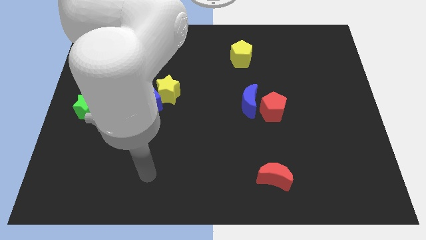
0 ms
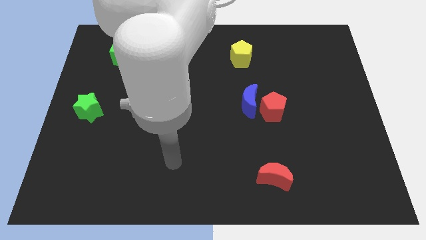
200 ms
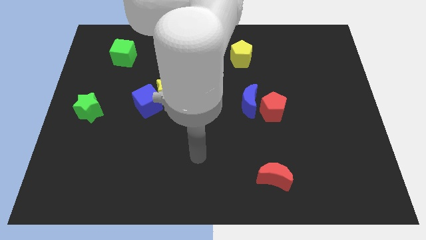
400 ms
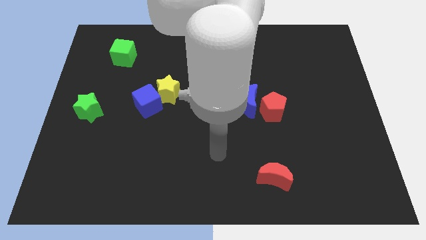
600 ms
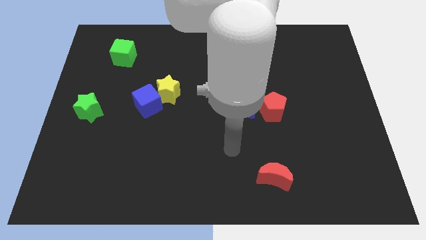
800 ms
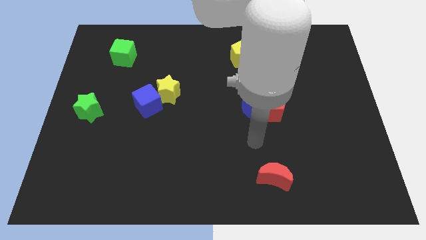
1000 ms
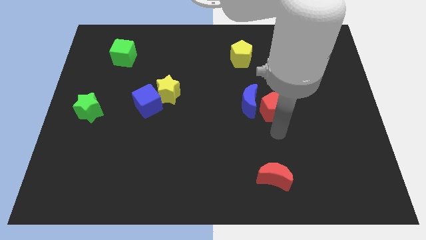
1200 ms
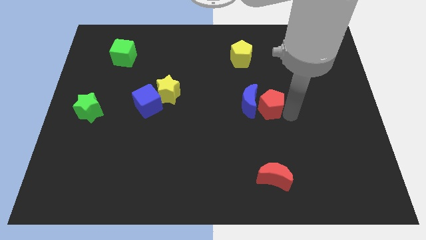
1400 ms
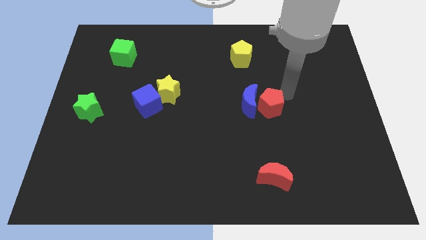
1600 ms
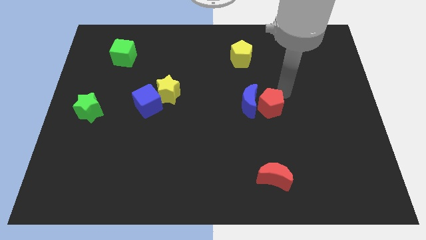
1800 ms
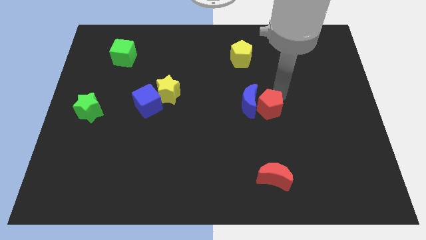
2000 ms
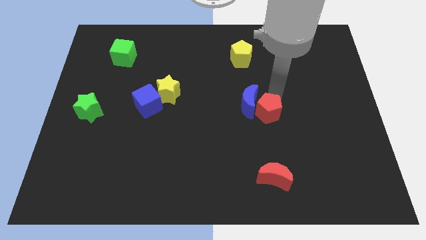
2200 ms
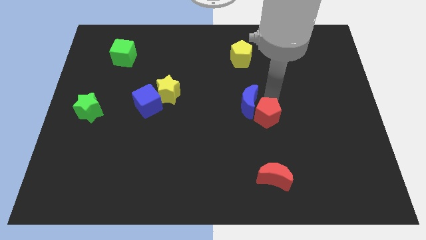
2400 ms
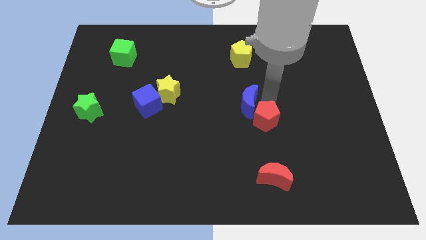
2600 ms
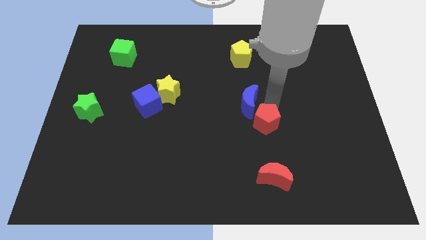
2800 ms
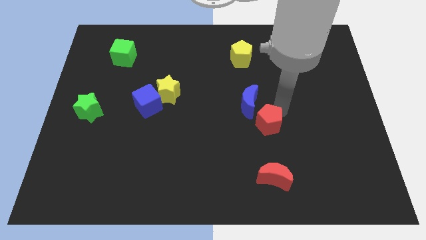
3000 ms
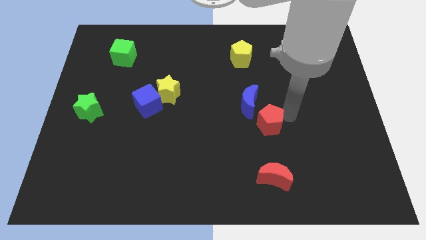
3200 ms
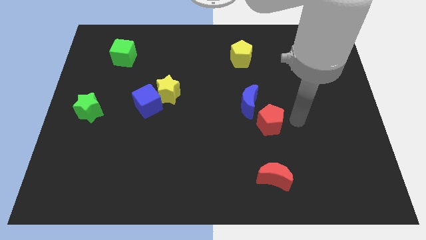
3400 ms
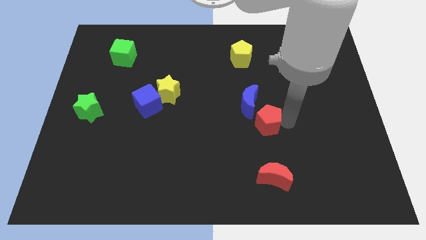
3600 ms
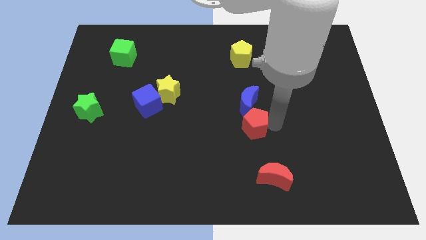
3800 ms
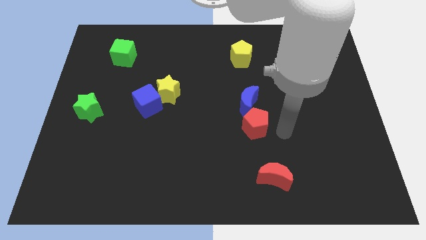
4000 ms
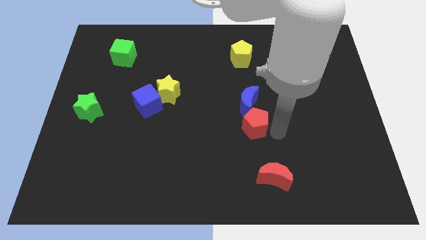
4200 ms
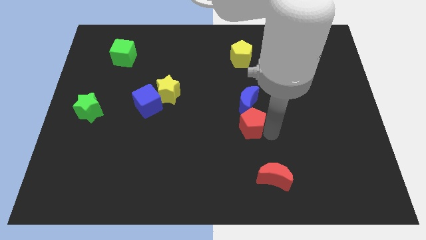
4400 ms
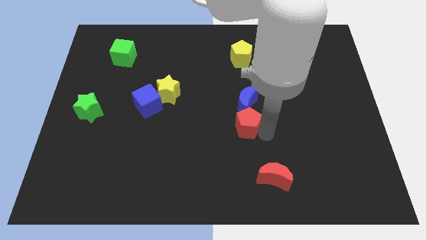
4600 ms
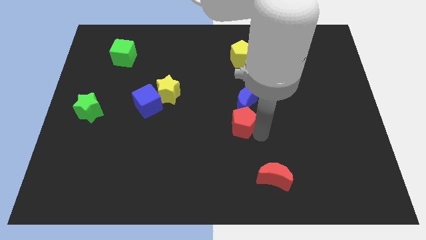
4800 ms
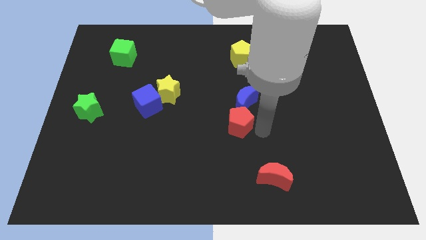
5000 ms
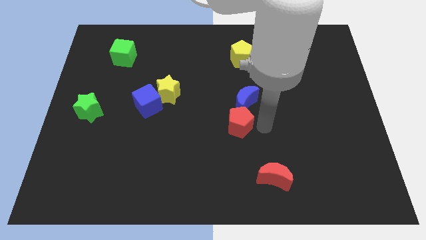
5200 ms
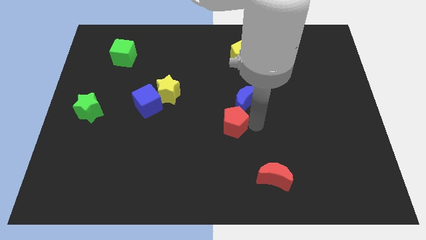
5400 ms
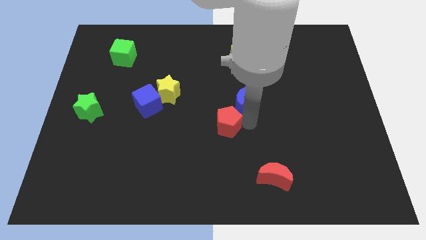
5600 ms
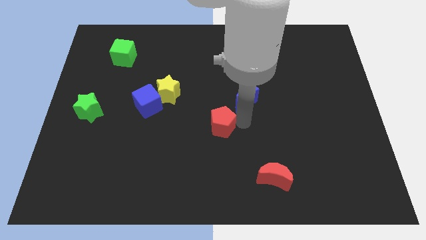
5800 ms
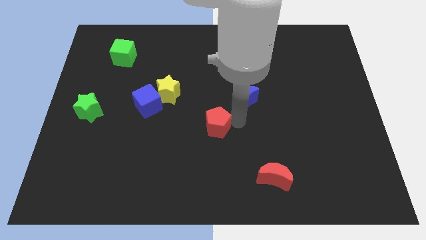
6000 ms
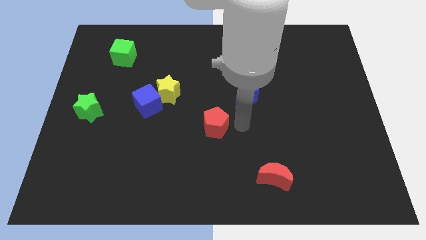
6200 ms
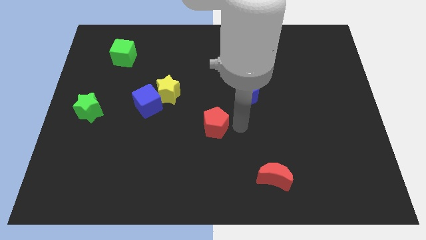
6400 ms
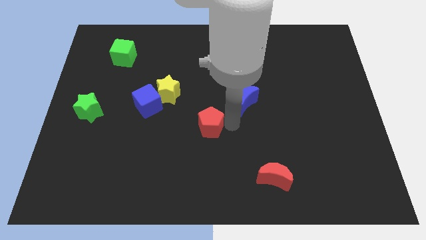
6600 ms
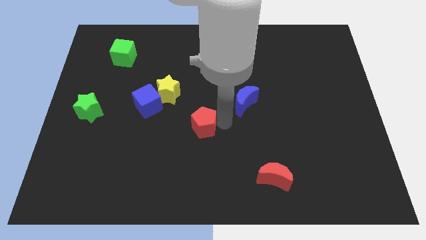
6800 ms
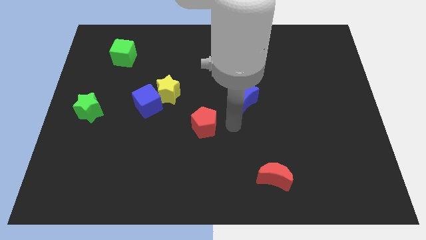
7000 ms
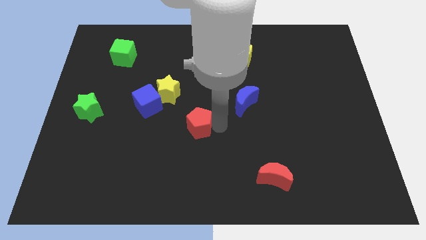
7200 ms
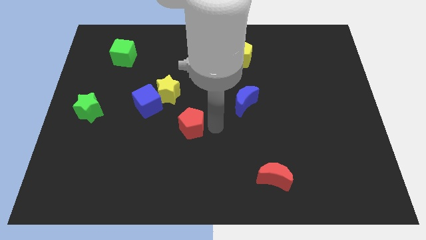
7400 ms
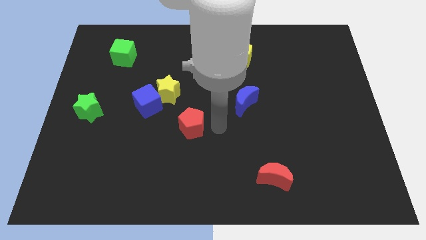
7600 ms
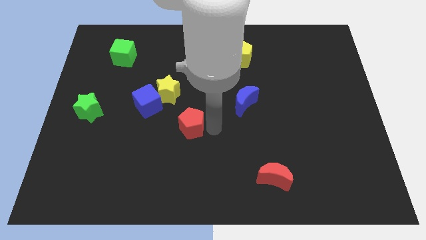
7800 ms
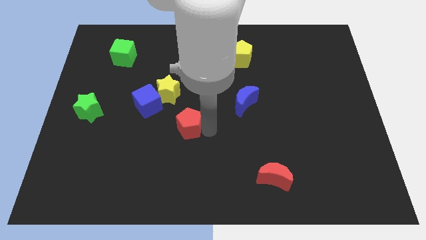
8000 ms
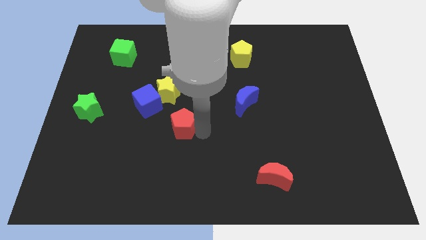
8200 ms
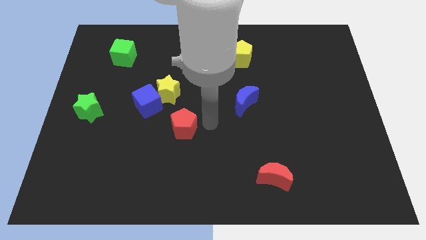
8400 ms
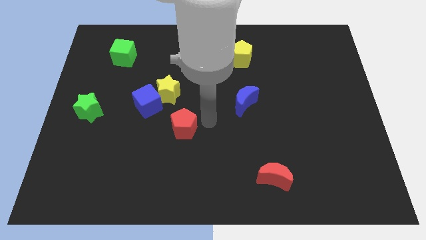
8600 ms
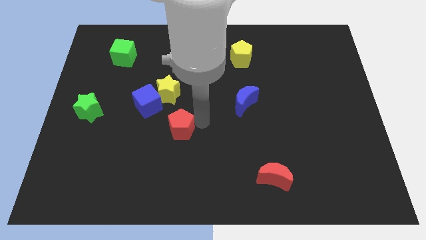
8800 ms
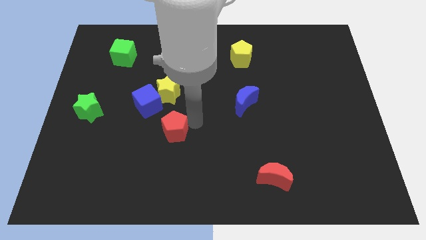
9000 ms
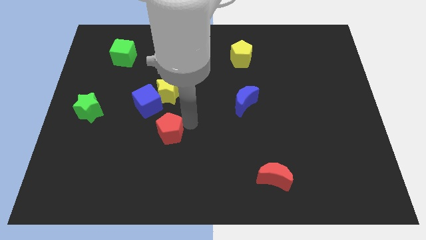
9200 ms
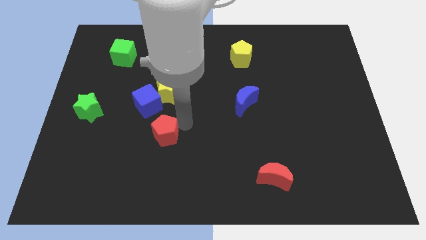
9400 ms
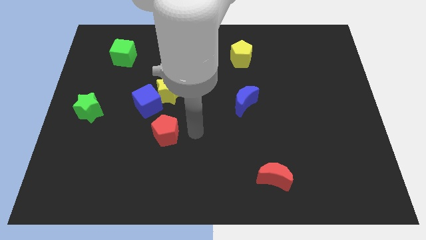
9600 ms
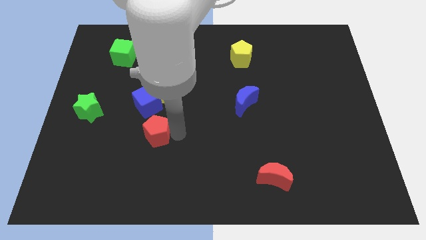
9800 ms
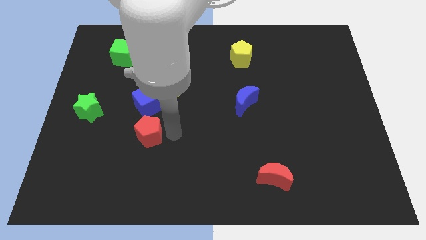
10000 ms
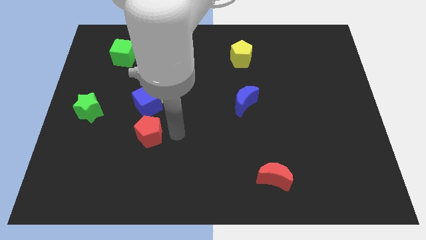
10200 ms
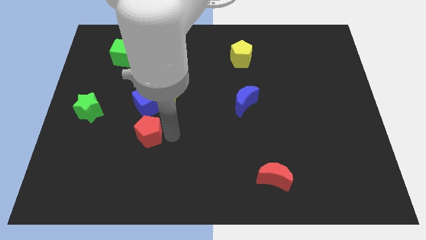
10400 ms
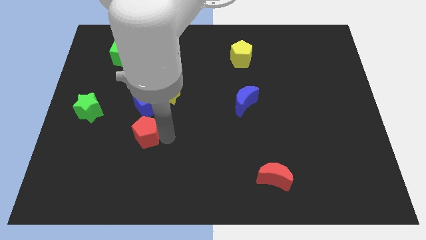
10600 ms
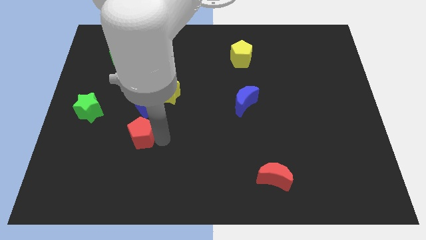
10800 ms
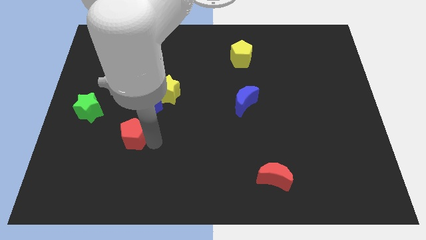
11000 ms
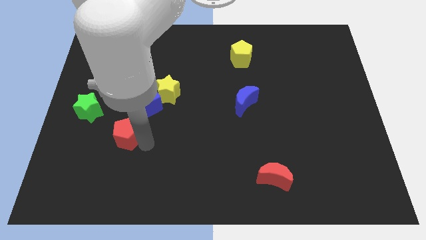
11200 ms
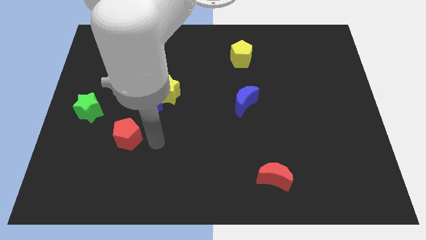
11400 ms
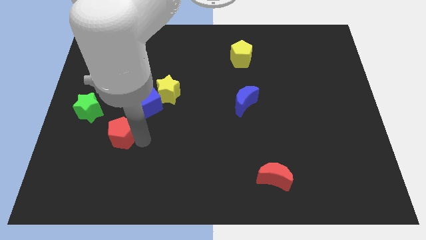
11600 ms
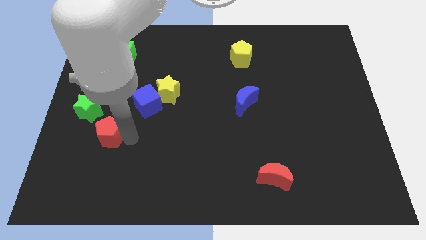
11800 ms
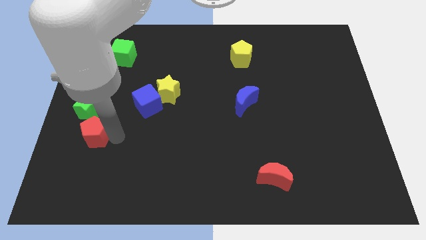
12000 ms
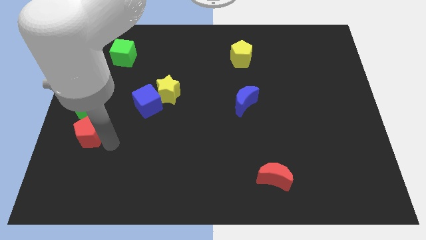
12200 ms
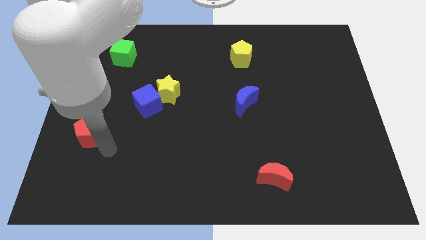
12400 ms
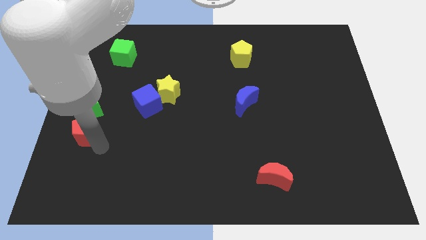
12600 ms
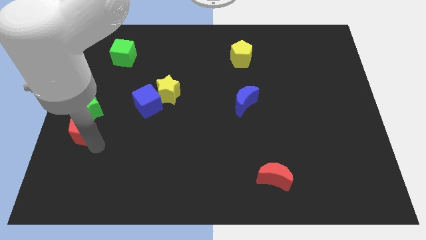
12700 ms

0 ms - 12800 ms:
slide the red pentagon to the left side

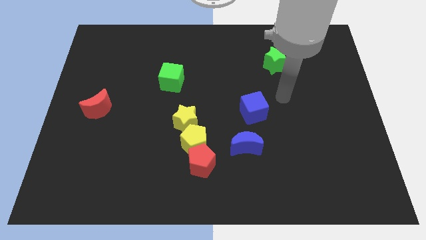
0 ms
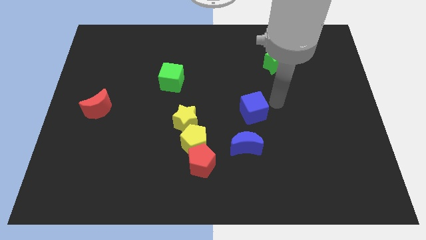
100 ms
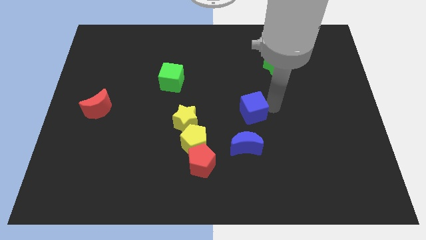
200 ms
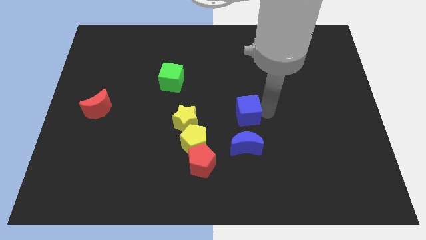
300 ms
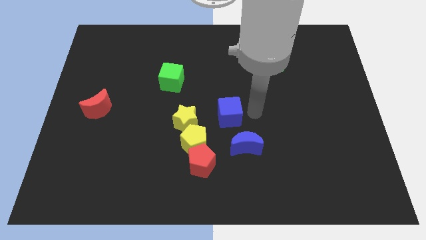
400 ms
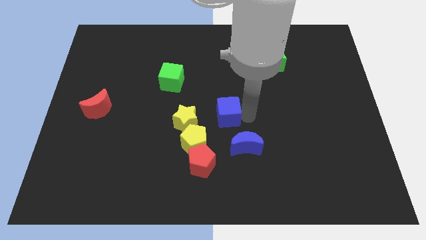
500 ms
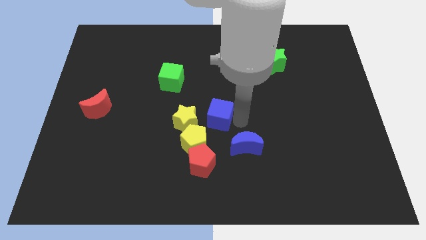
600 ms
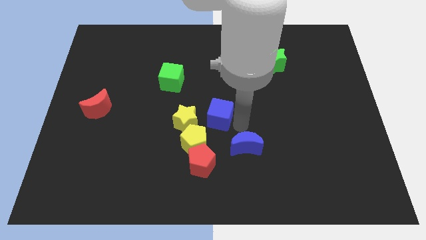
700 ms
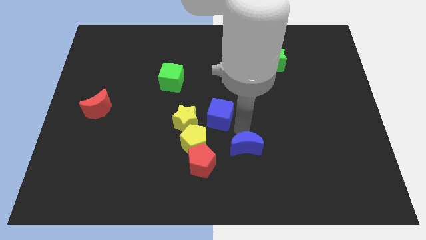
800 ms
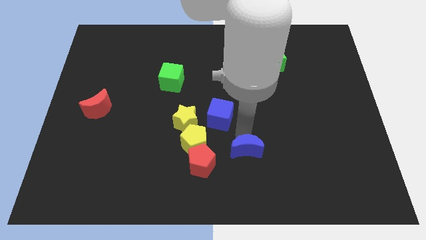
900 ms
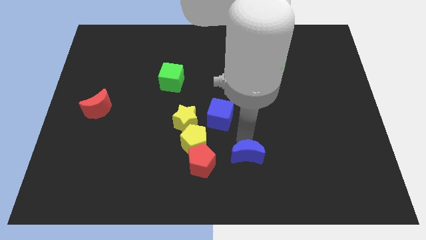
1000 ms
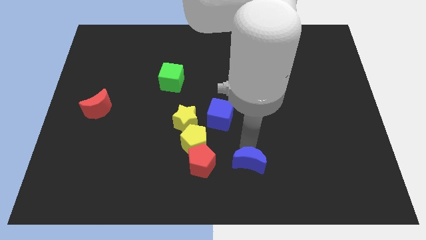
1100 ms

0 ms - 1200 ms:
slide the blue moon to the bottom

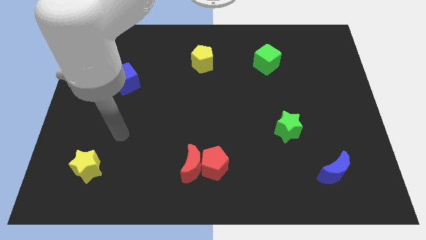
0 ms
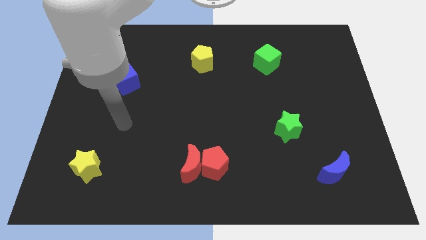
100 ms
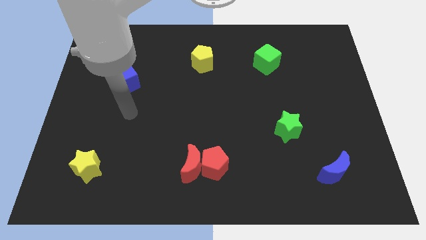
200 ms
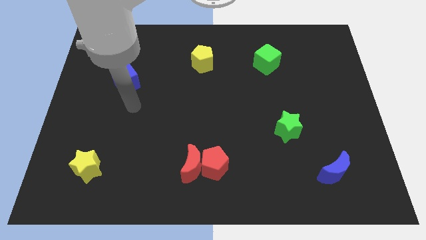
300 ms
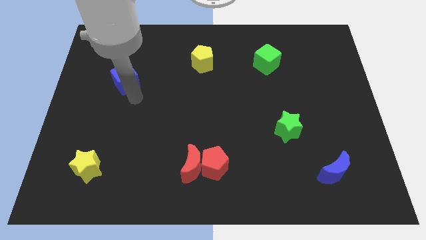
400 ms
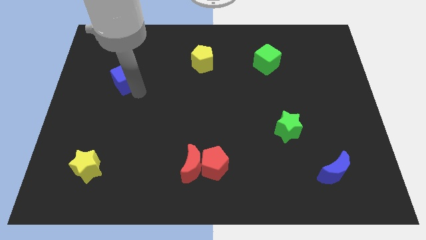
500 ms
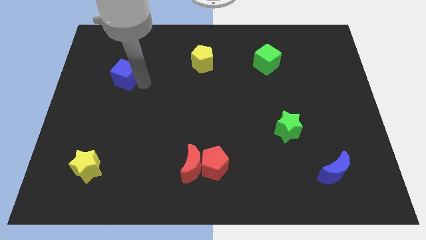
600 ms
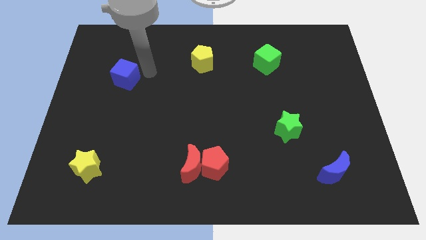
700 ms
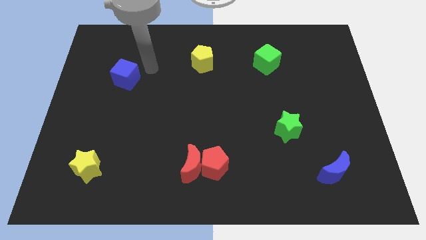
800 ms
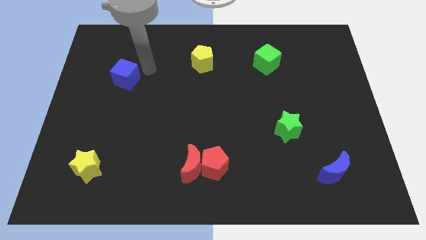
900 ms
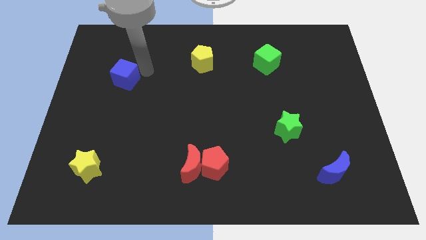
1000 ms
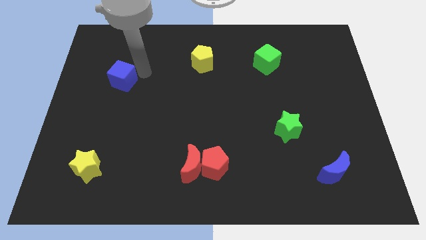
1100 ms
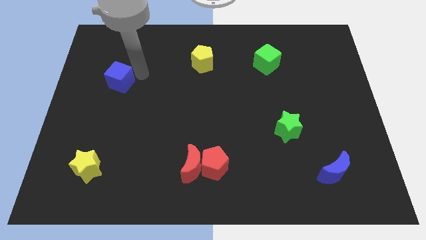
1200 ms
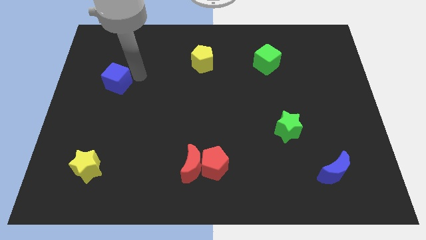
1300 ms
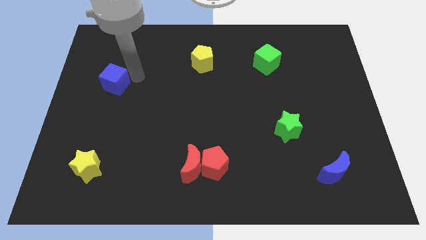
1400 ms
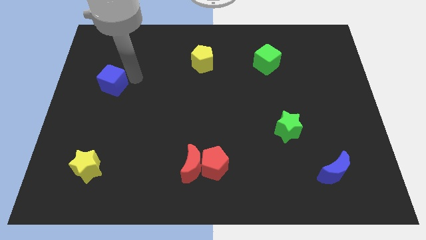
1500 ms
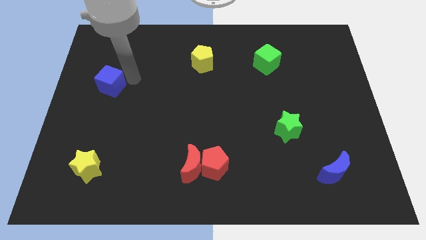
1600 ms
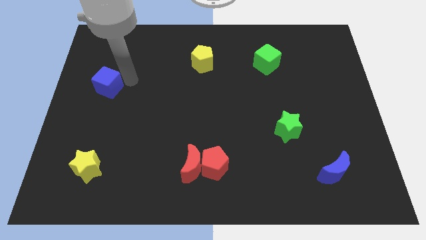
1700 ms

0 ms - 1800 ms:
push the blue cube to the center left
